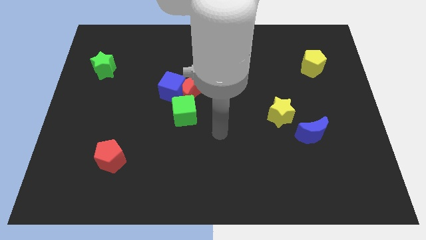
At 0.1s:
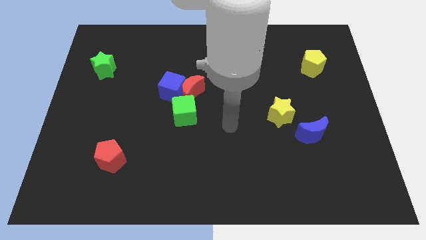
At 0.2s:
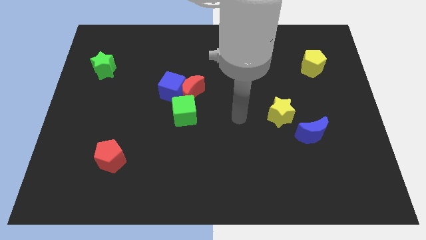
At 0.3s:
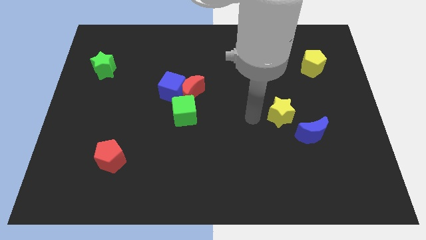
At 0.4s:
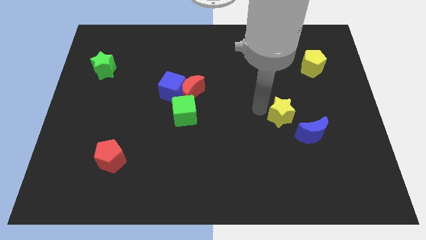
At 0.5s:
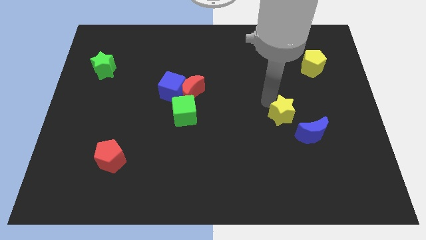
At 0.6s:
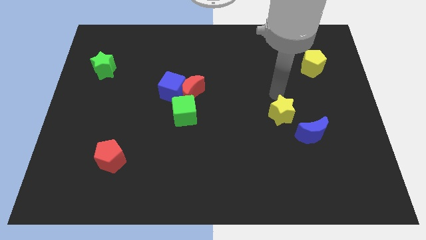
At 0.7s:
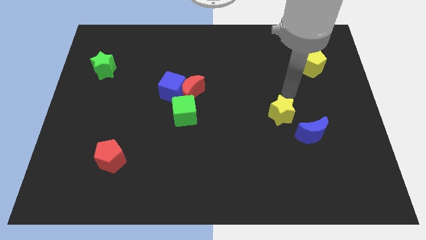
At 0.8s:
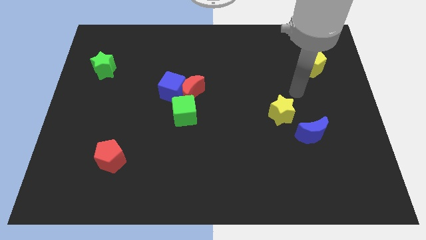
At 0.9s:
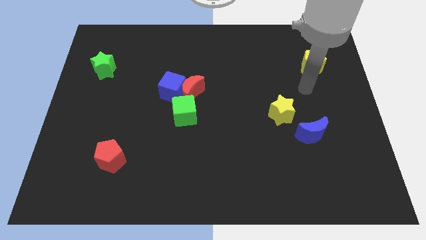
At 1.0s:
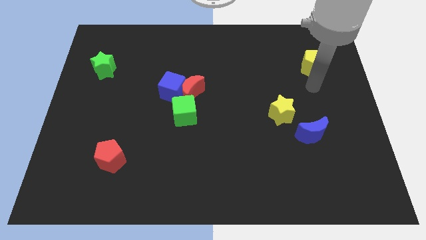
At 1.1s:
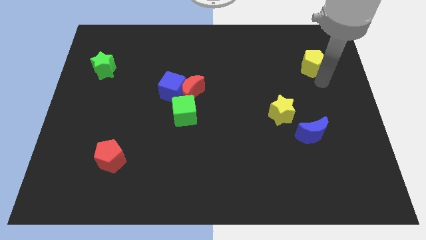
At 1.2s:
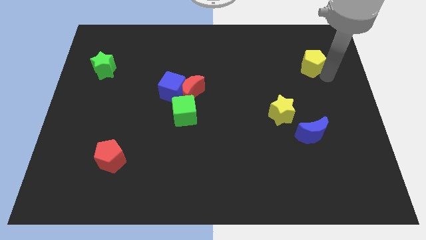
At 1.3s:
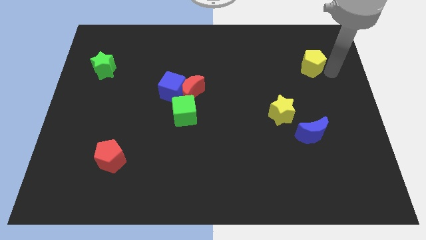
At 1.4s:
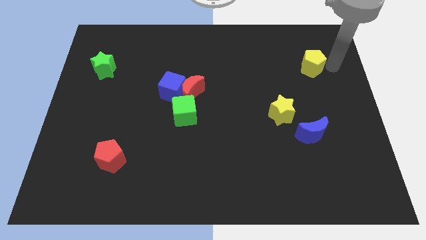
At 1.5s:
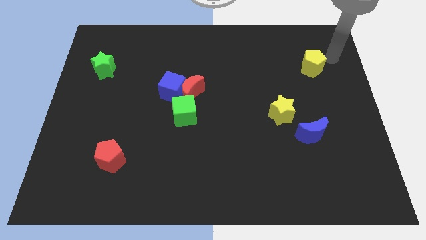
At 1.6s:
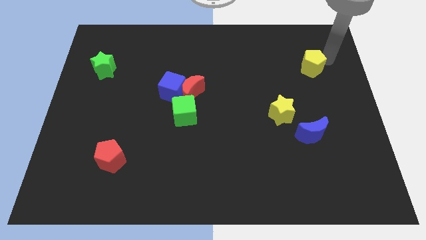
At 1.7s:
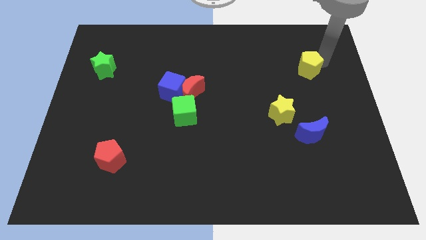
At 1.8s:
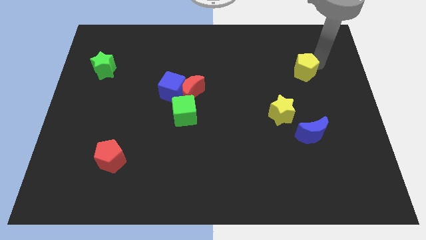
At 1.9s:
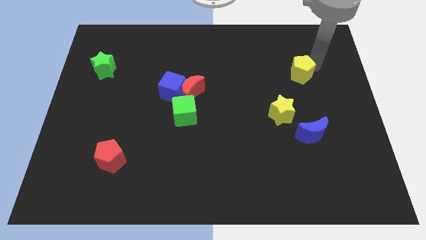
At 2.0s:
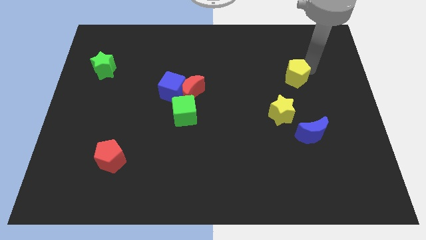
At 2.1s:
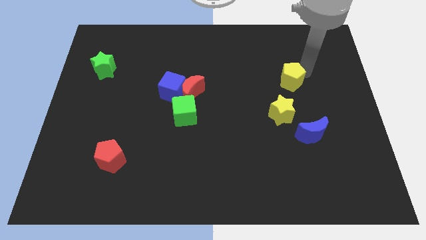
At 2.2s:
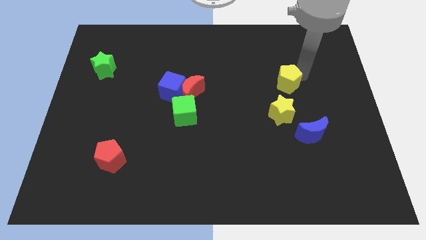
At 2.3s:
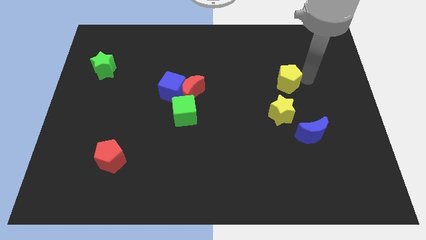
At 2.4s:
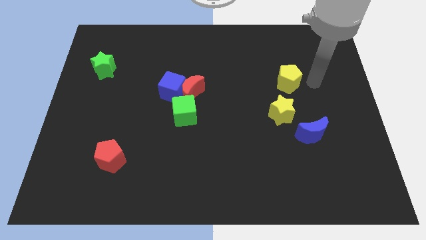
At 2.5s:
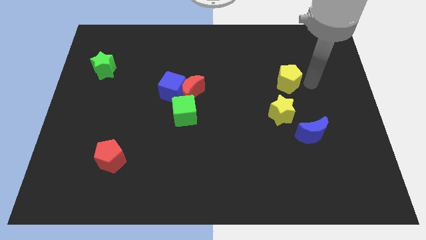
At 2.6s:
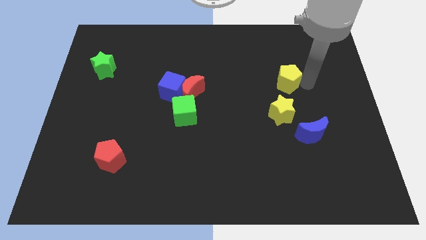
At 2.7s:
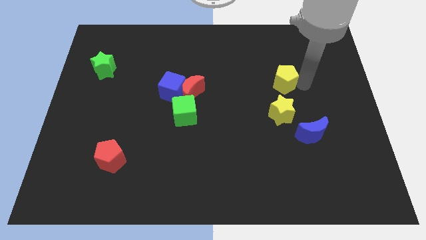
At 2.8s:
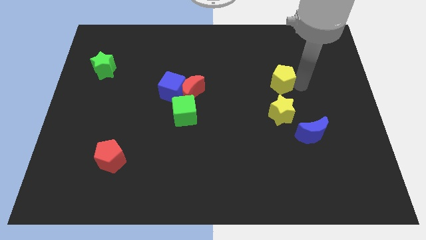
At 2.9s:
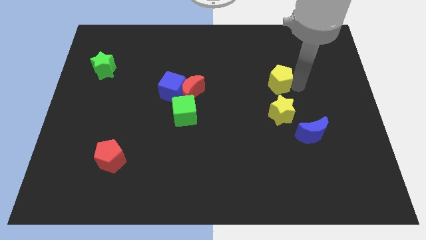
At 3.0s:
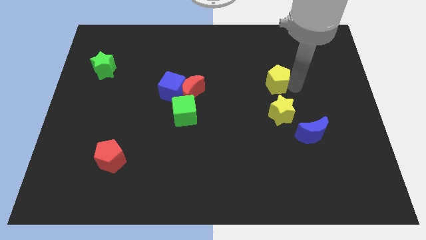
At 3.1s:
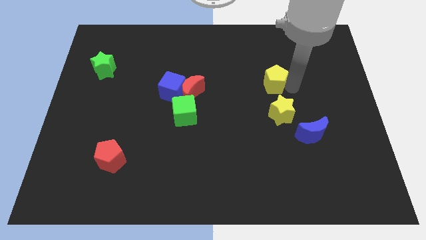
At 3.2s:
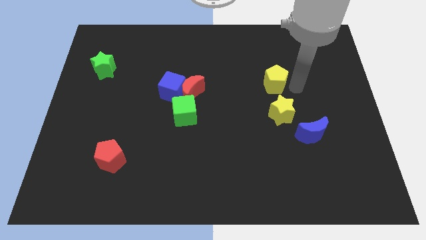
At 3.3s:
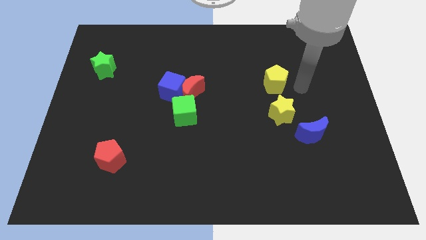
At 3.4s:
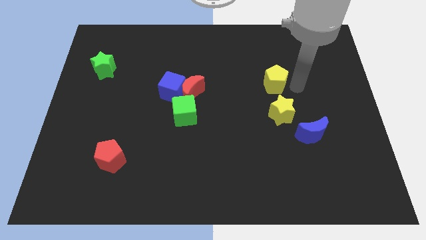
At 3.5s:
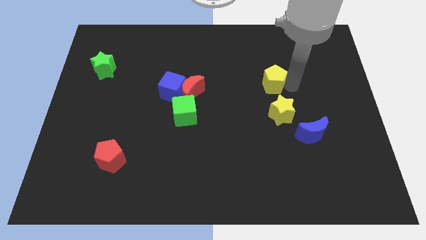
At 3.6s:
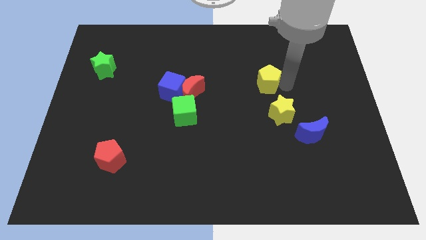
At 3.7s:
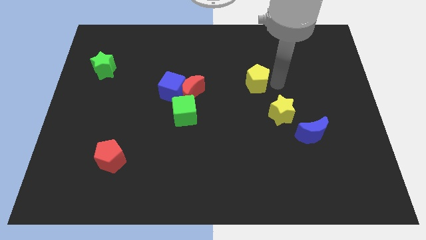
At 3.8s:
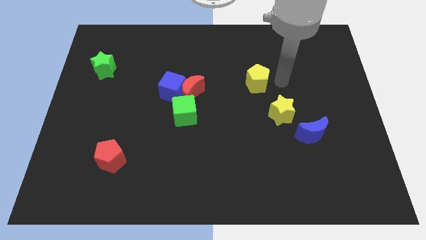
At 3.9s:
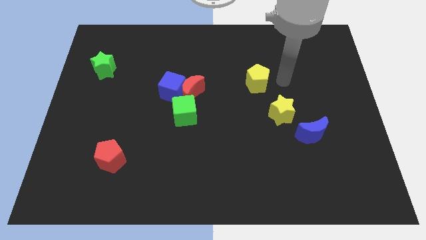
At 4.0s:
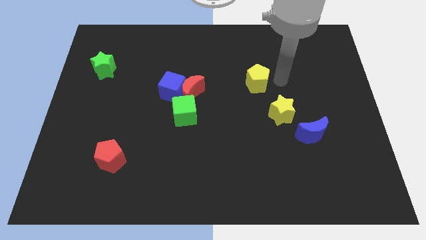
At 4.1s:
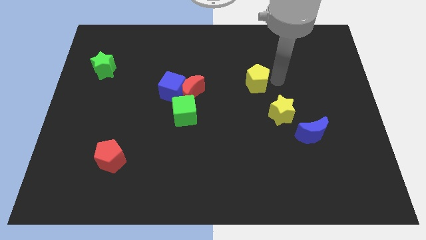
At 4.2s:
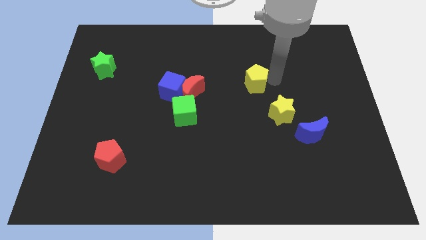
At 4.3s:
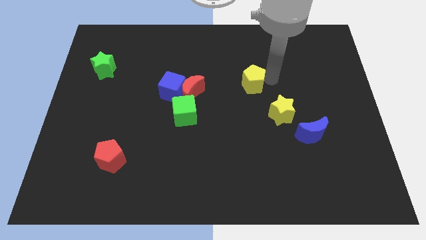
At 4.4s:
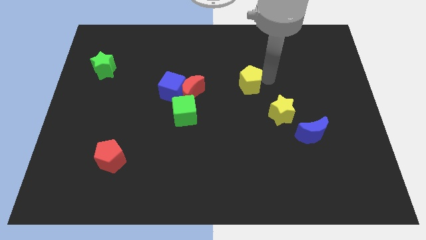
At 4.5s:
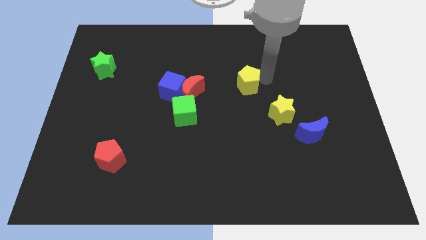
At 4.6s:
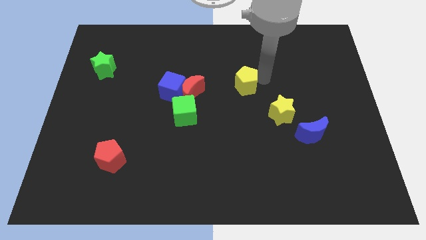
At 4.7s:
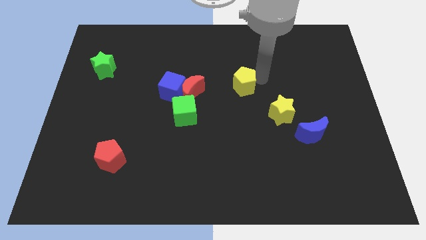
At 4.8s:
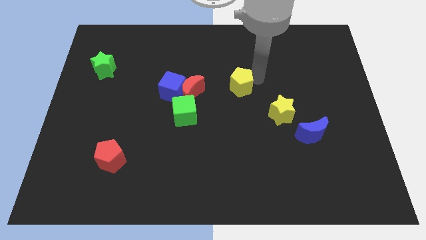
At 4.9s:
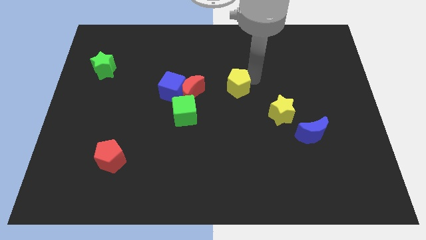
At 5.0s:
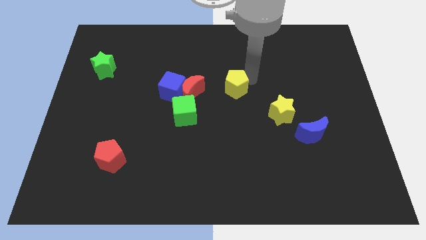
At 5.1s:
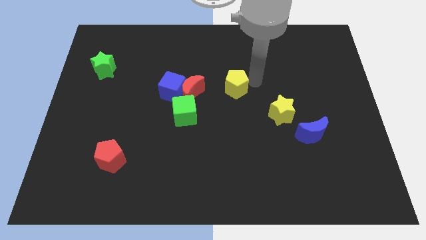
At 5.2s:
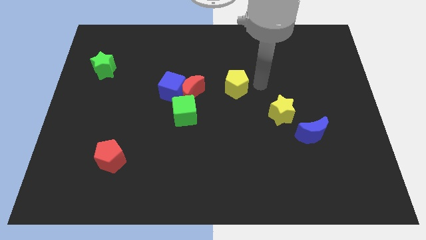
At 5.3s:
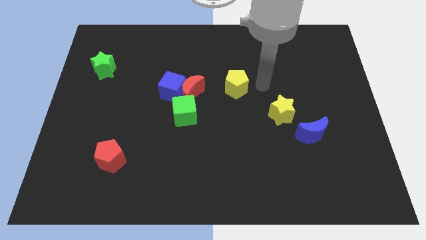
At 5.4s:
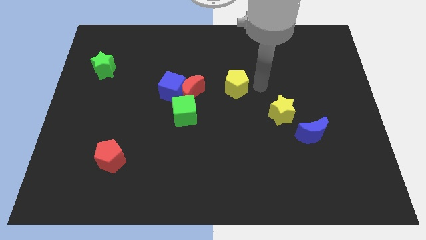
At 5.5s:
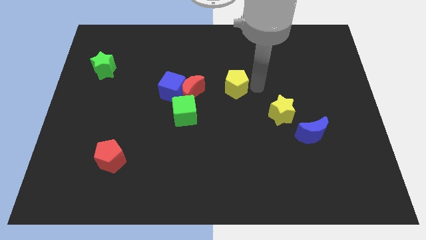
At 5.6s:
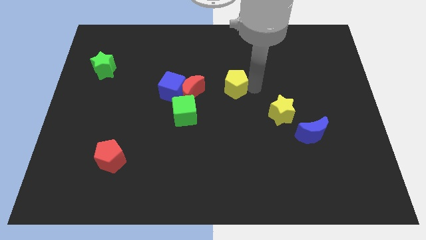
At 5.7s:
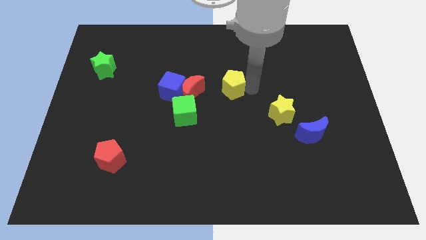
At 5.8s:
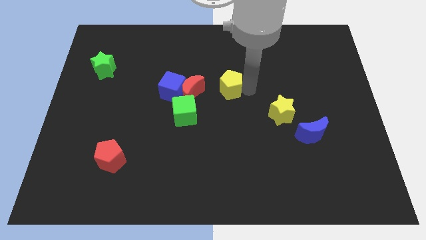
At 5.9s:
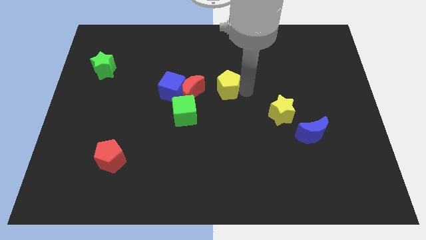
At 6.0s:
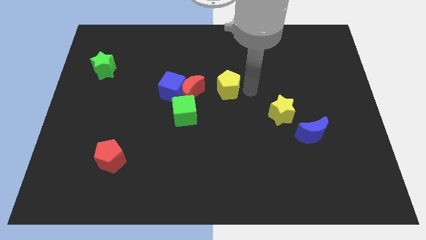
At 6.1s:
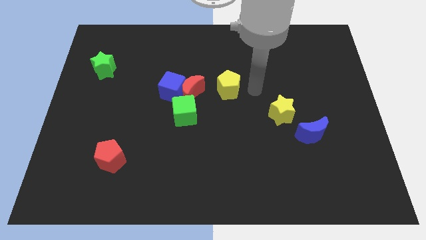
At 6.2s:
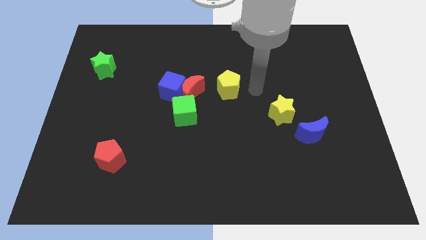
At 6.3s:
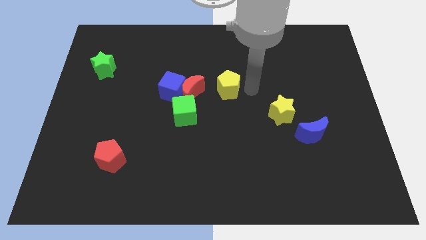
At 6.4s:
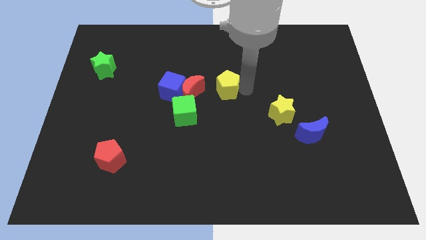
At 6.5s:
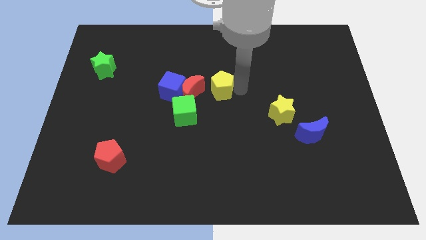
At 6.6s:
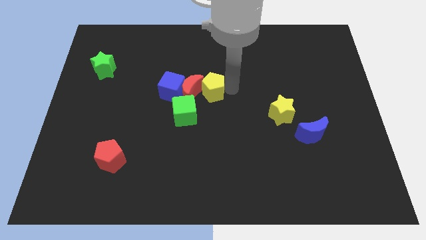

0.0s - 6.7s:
move the yellow pentagon towards the red moon
